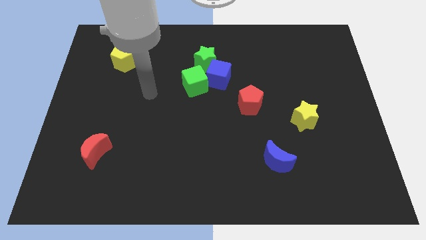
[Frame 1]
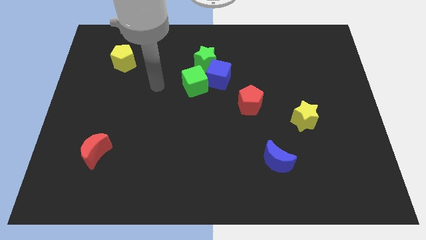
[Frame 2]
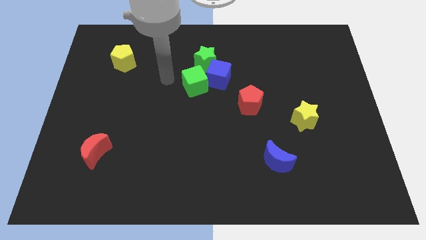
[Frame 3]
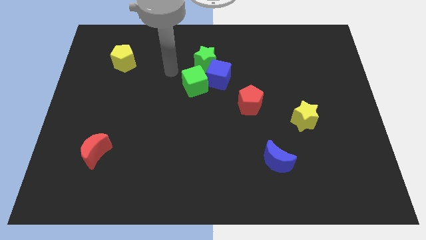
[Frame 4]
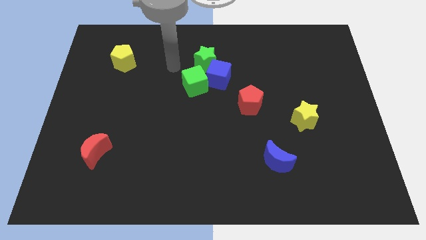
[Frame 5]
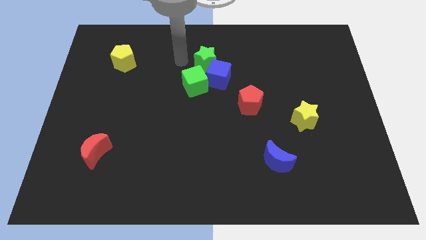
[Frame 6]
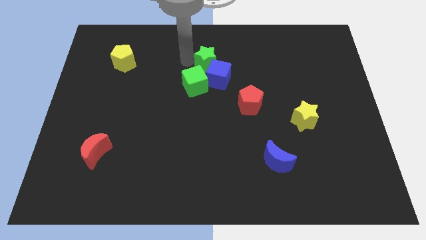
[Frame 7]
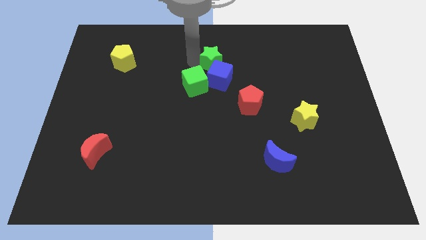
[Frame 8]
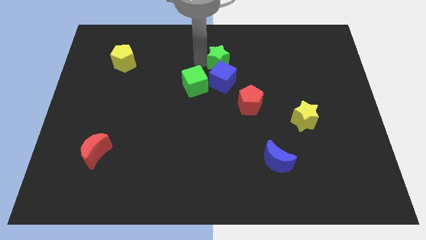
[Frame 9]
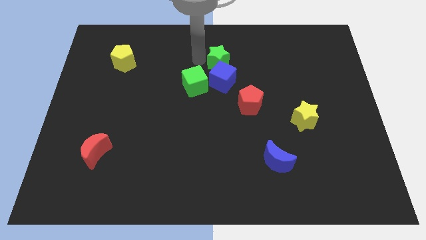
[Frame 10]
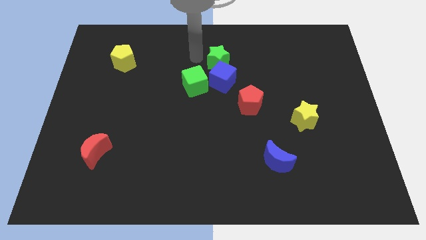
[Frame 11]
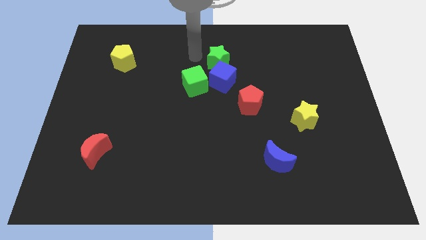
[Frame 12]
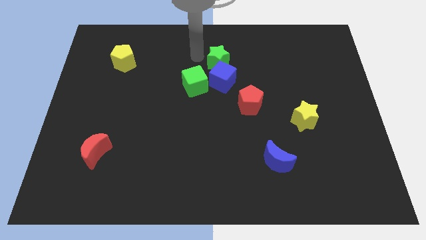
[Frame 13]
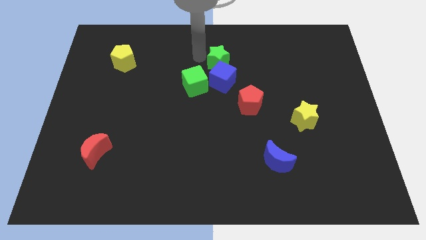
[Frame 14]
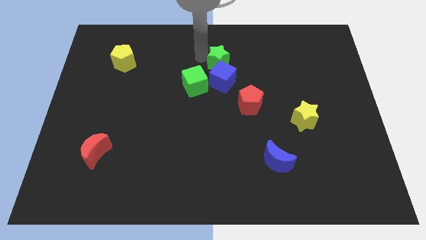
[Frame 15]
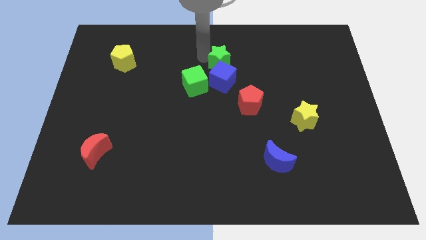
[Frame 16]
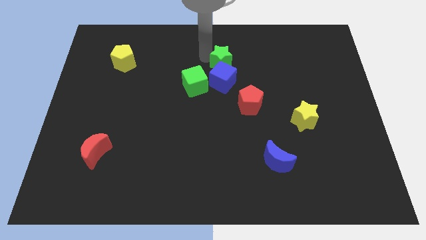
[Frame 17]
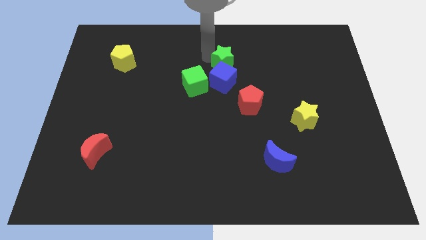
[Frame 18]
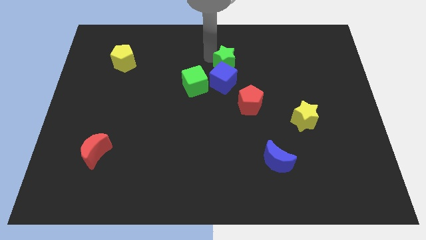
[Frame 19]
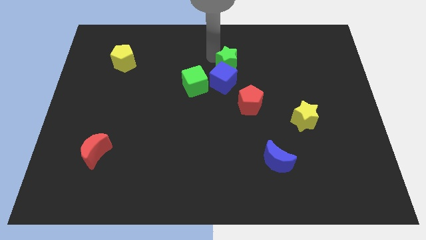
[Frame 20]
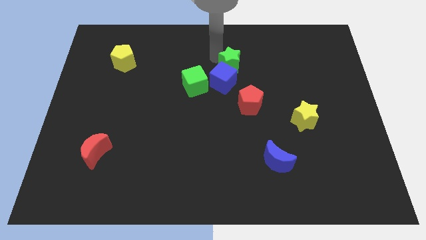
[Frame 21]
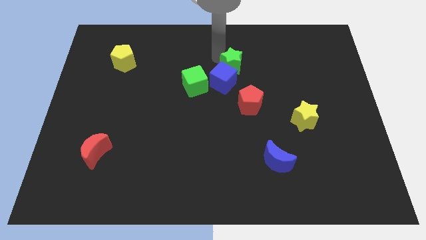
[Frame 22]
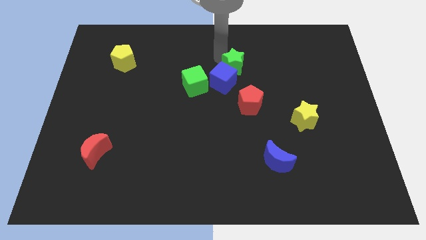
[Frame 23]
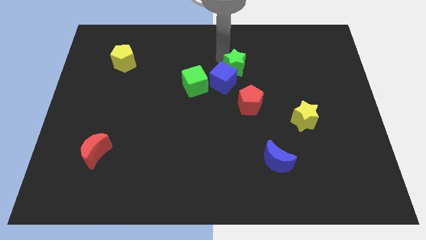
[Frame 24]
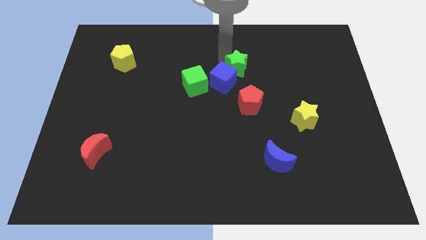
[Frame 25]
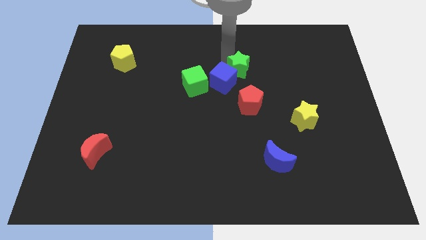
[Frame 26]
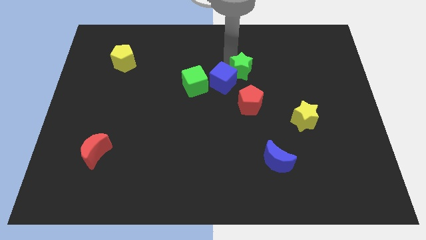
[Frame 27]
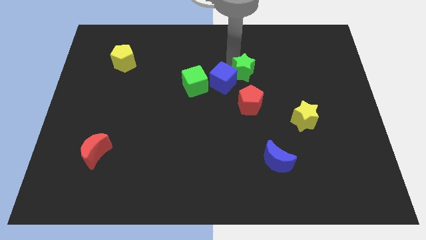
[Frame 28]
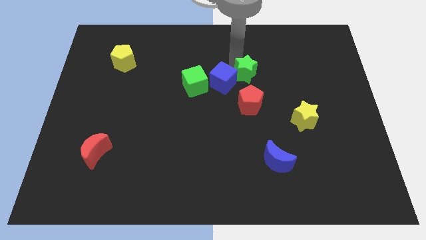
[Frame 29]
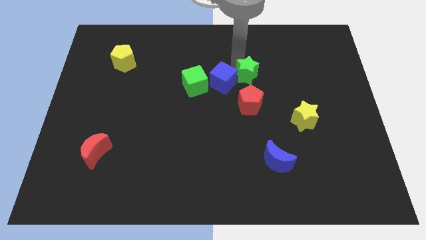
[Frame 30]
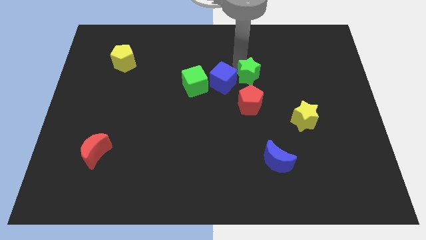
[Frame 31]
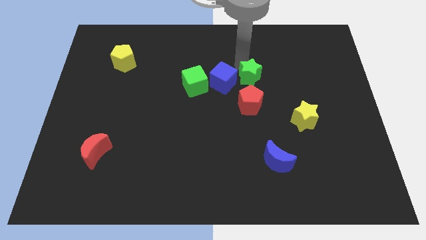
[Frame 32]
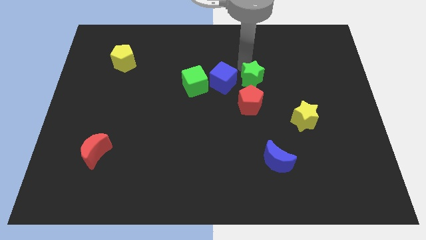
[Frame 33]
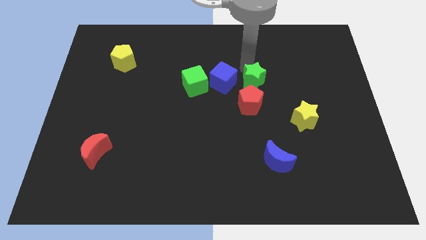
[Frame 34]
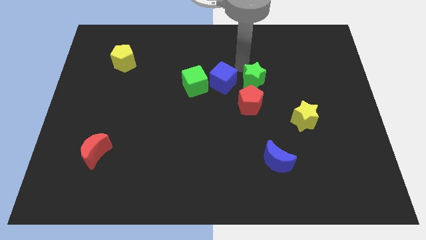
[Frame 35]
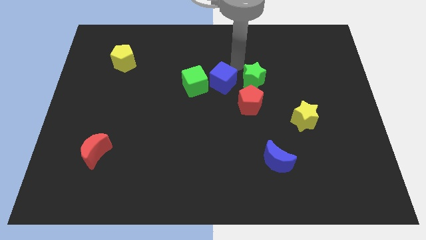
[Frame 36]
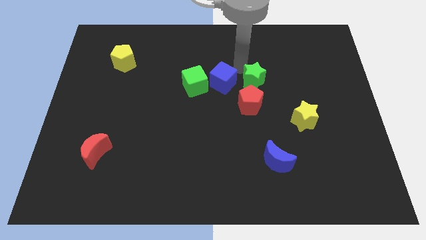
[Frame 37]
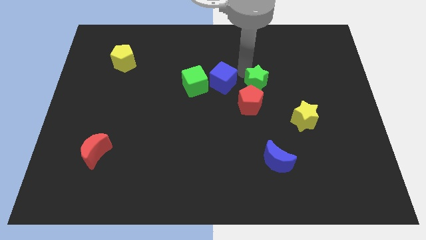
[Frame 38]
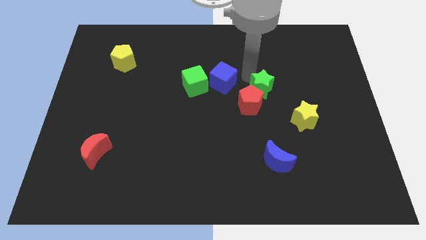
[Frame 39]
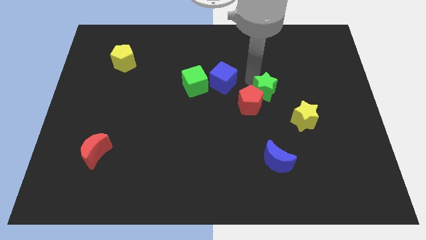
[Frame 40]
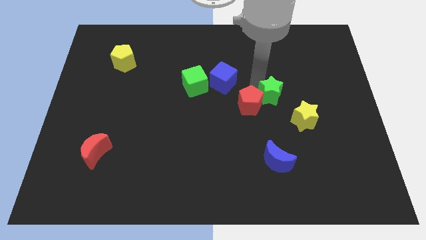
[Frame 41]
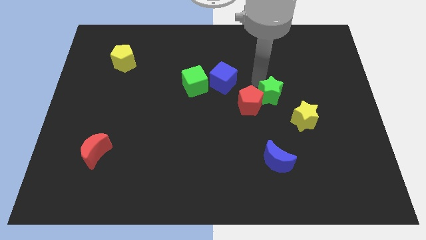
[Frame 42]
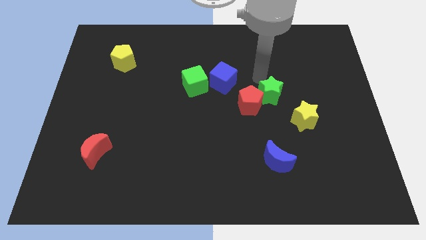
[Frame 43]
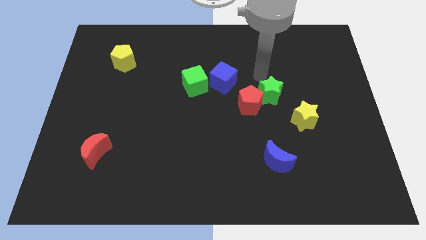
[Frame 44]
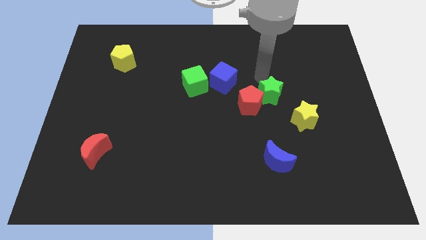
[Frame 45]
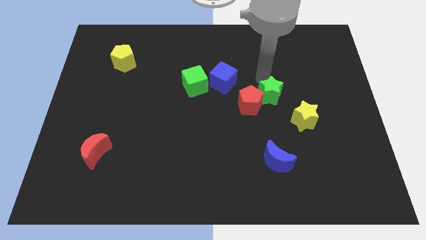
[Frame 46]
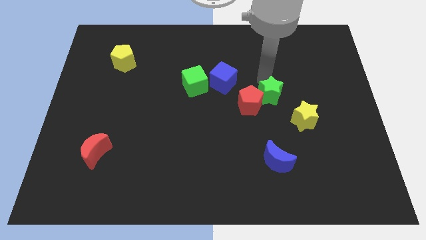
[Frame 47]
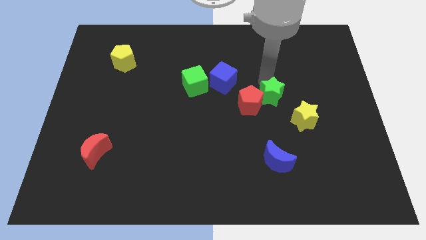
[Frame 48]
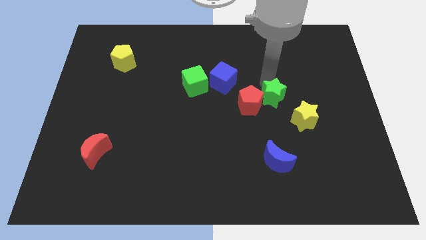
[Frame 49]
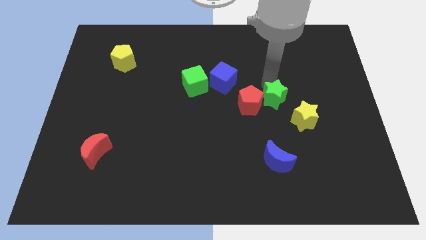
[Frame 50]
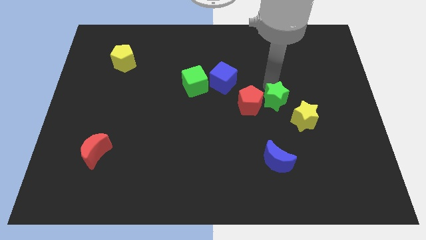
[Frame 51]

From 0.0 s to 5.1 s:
move the green star down and then right

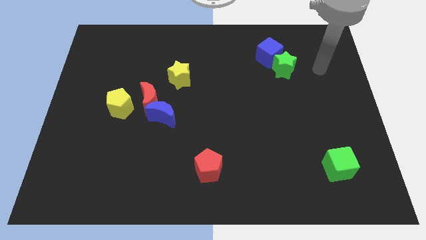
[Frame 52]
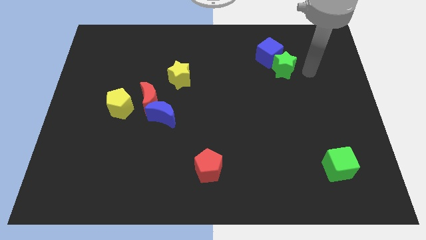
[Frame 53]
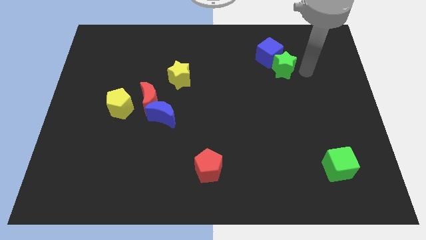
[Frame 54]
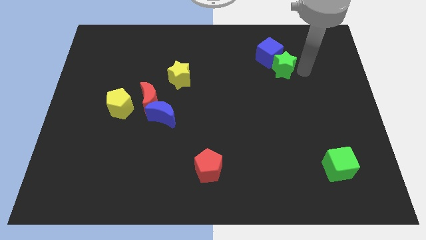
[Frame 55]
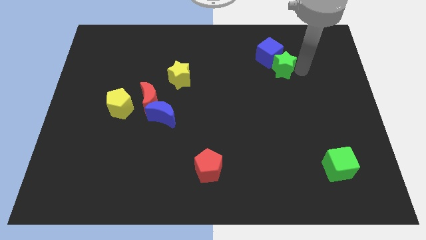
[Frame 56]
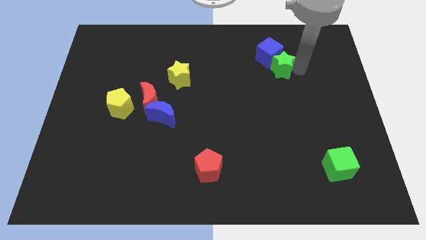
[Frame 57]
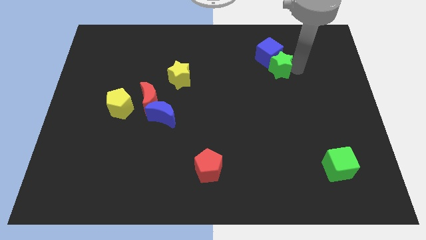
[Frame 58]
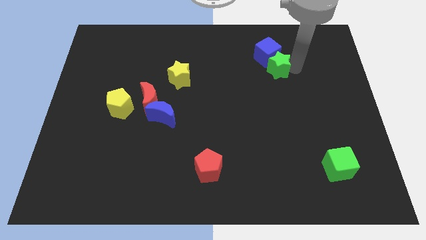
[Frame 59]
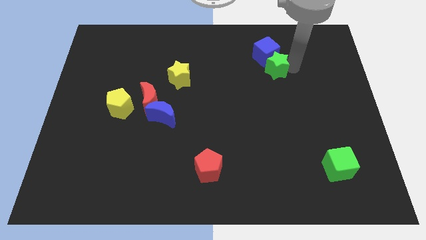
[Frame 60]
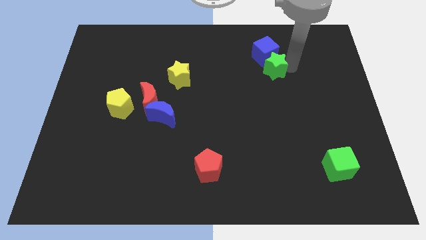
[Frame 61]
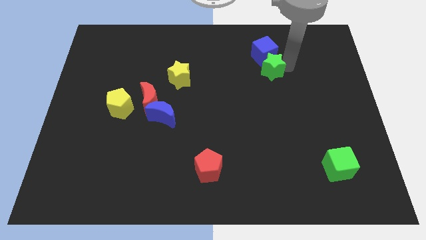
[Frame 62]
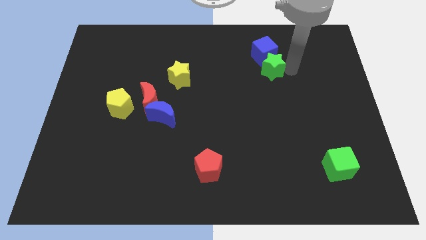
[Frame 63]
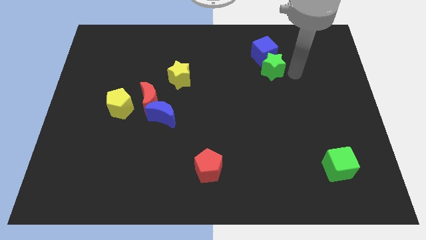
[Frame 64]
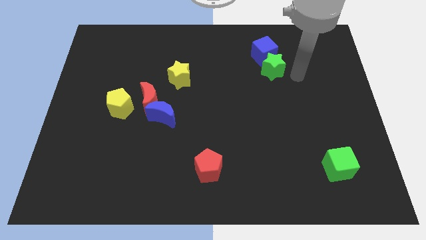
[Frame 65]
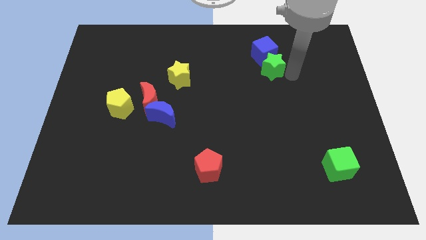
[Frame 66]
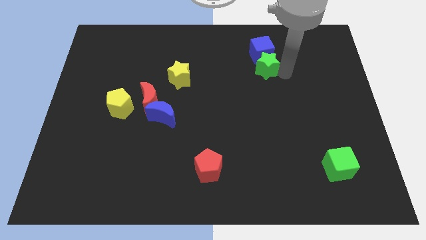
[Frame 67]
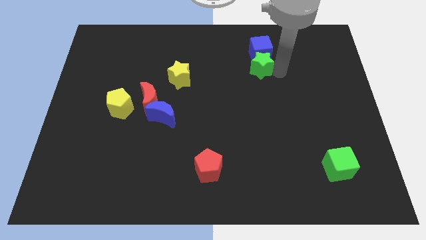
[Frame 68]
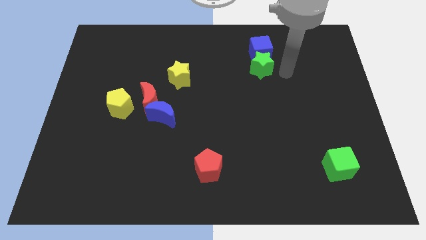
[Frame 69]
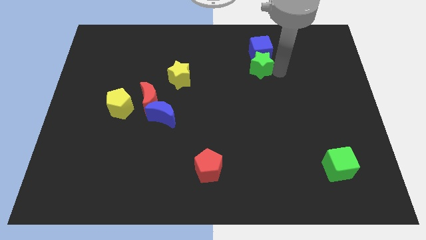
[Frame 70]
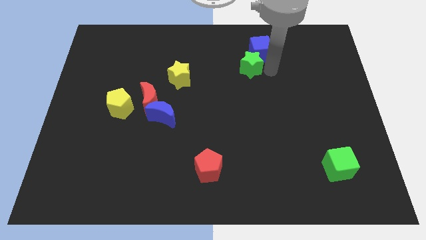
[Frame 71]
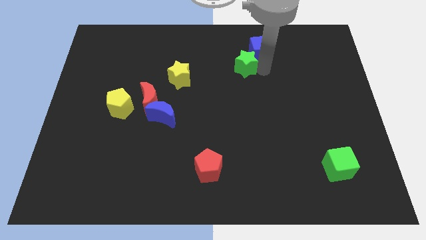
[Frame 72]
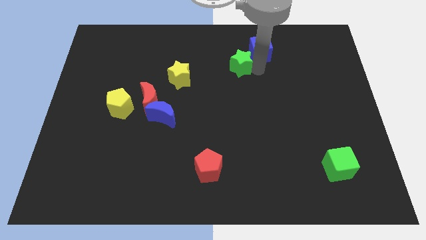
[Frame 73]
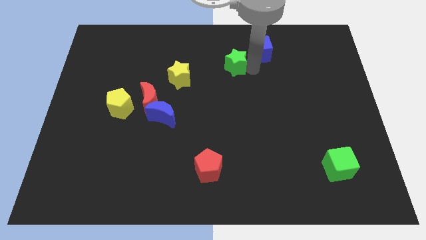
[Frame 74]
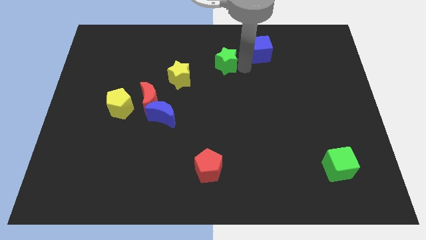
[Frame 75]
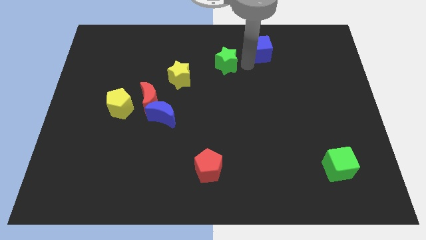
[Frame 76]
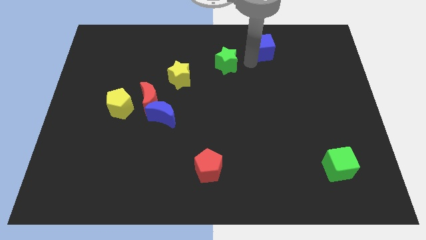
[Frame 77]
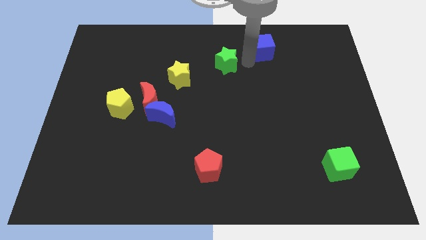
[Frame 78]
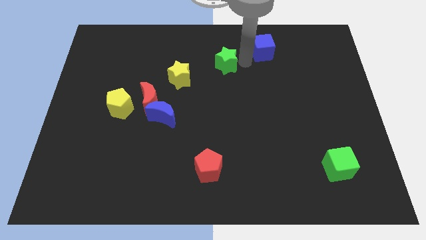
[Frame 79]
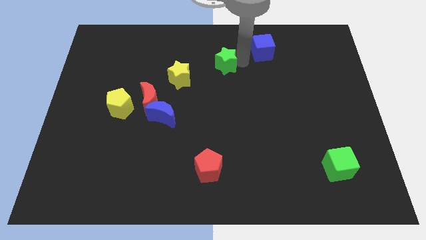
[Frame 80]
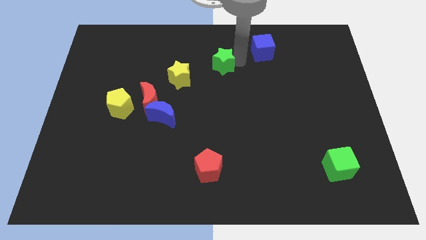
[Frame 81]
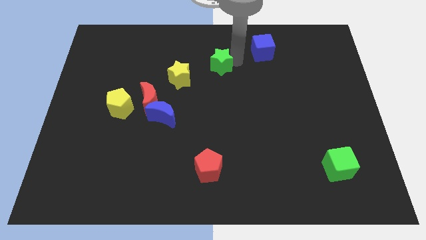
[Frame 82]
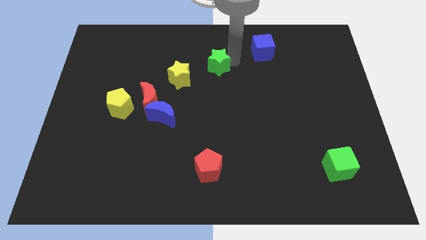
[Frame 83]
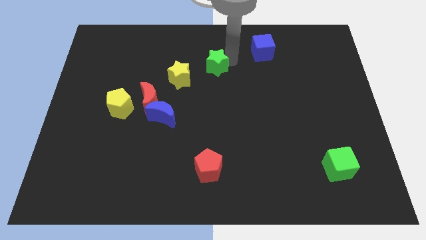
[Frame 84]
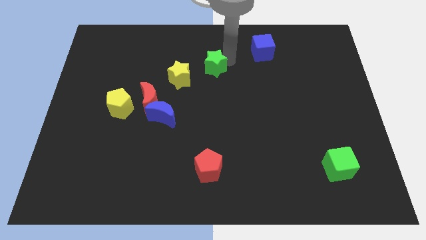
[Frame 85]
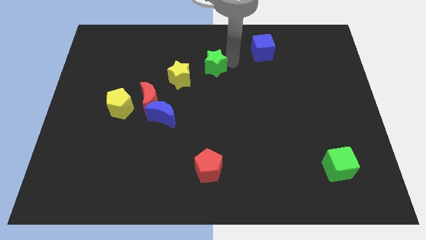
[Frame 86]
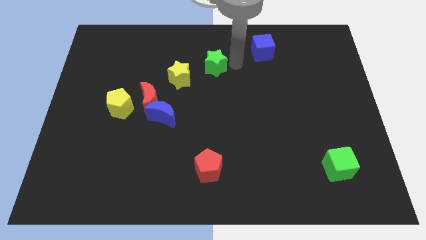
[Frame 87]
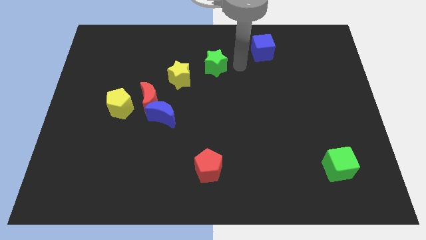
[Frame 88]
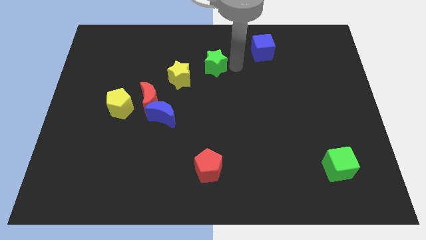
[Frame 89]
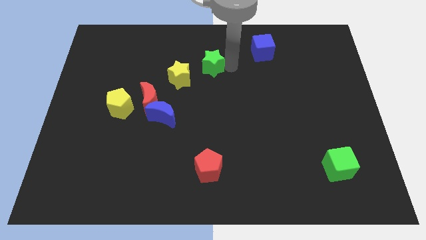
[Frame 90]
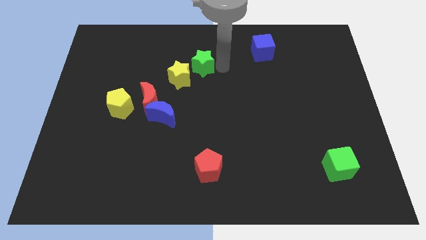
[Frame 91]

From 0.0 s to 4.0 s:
slide the green star left
